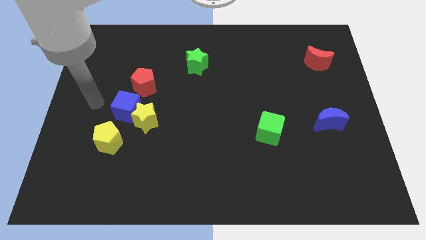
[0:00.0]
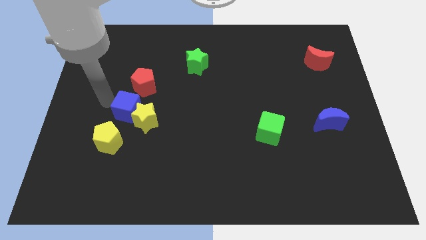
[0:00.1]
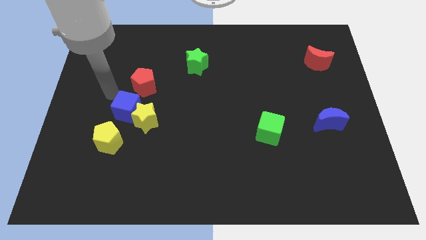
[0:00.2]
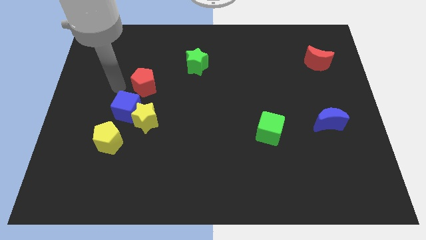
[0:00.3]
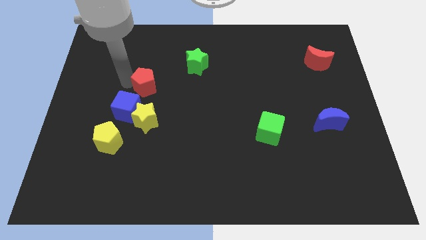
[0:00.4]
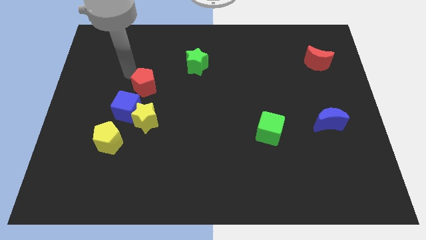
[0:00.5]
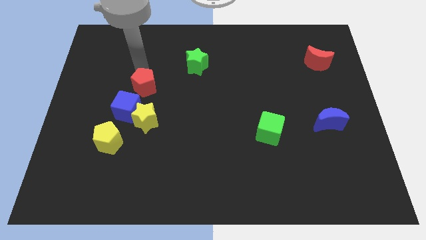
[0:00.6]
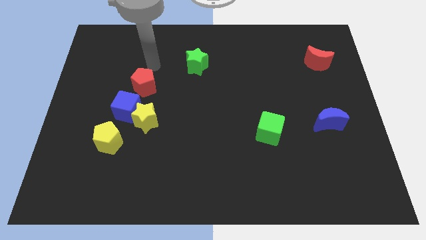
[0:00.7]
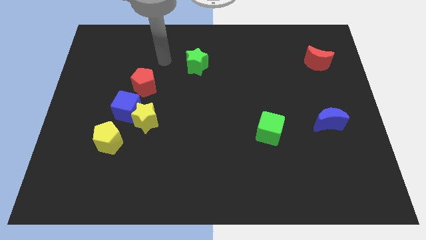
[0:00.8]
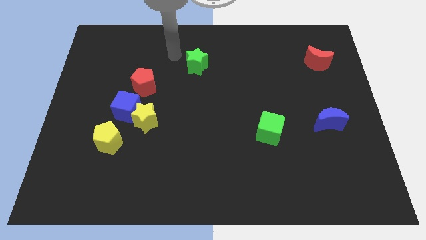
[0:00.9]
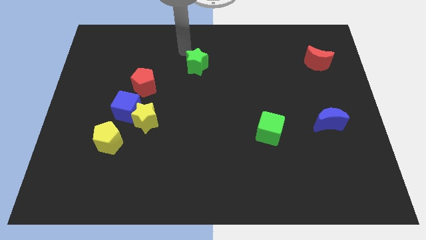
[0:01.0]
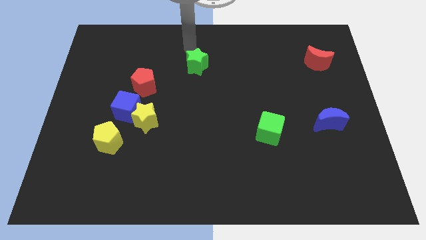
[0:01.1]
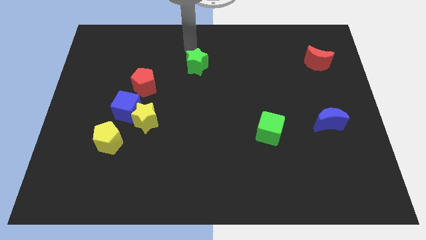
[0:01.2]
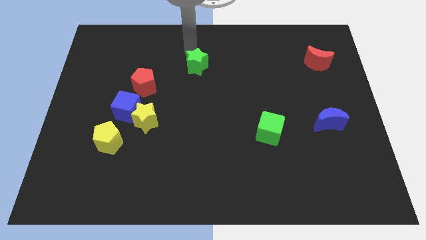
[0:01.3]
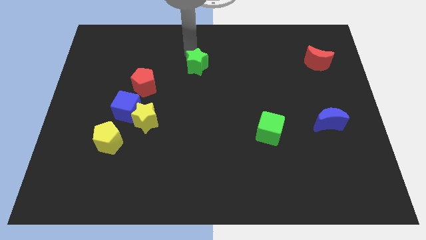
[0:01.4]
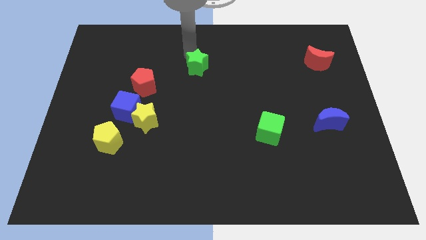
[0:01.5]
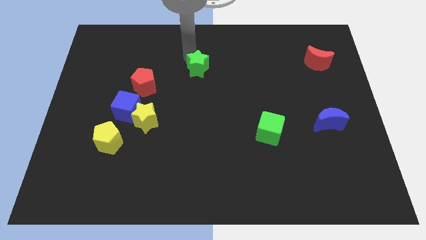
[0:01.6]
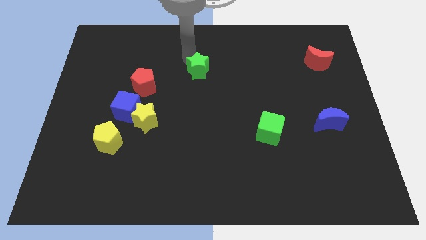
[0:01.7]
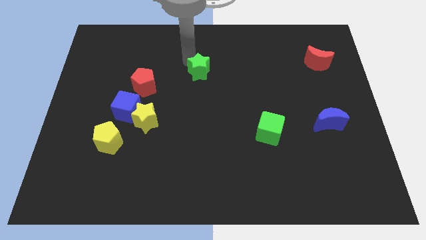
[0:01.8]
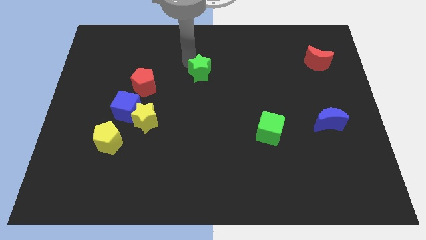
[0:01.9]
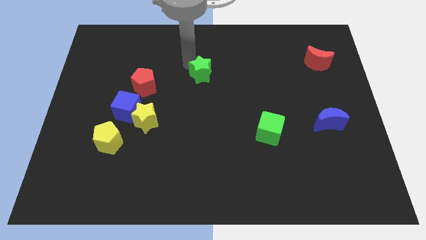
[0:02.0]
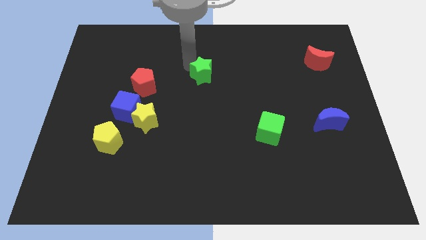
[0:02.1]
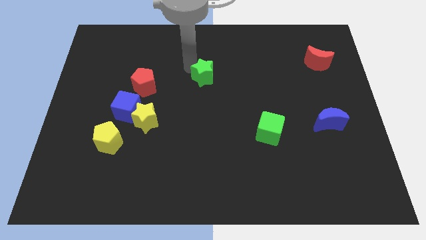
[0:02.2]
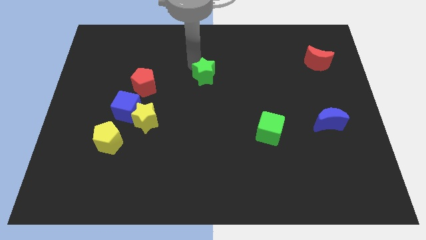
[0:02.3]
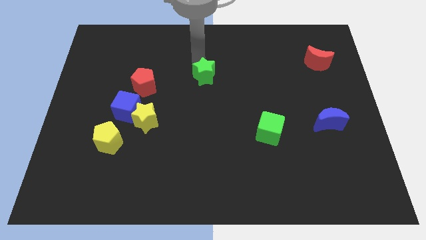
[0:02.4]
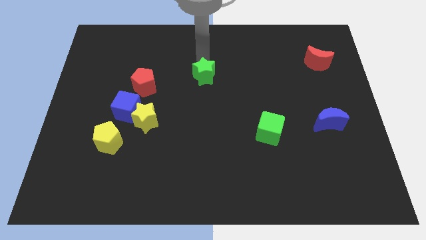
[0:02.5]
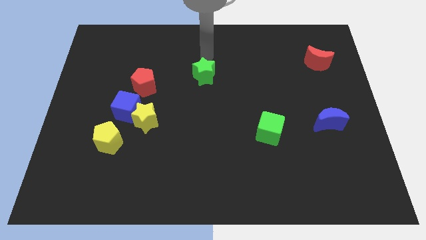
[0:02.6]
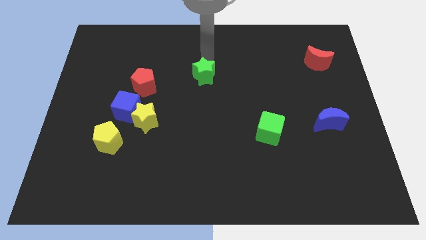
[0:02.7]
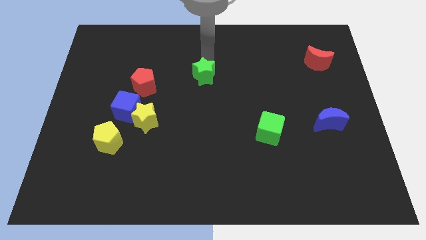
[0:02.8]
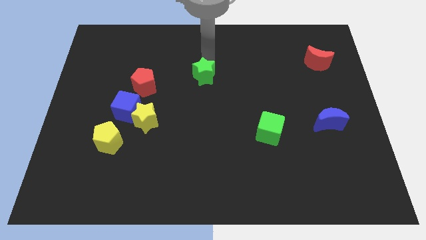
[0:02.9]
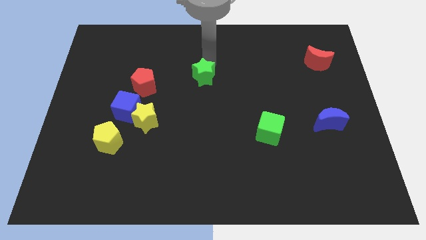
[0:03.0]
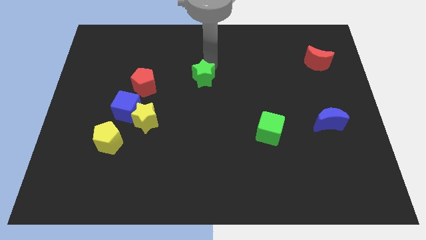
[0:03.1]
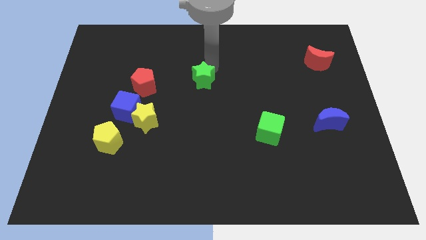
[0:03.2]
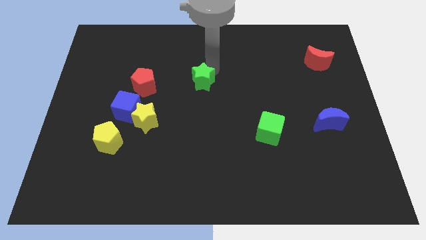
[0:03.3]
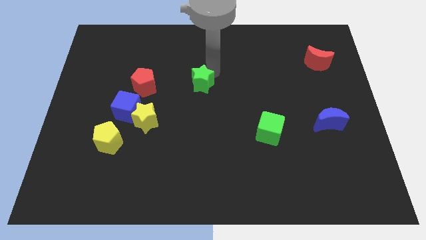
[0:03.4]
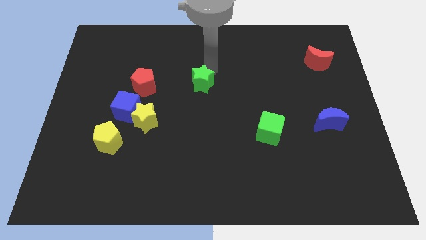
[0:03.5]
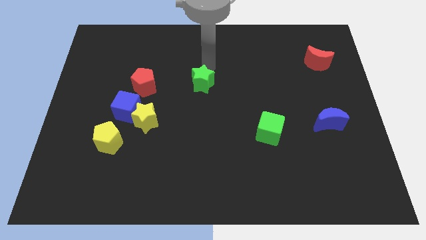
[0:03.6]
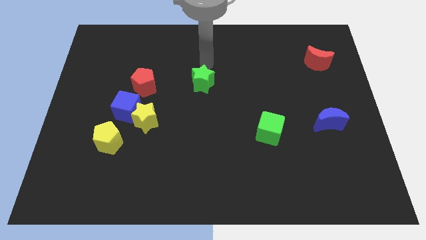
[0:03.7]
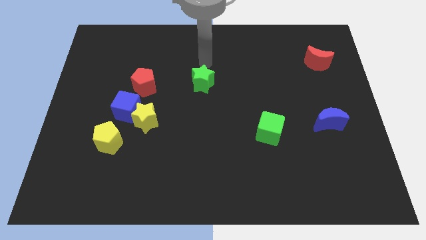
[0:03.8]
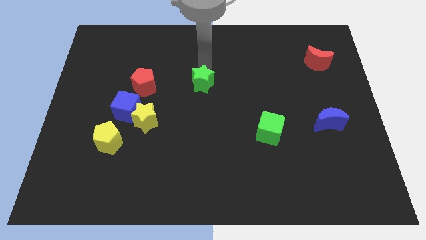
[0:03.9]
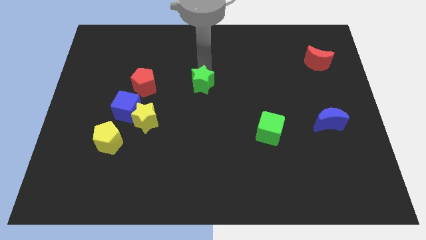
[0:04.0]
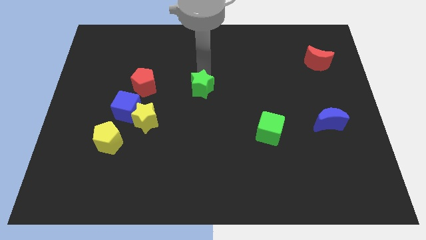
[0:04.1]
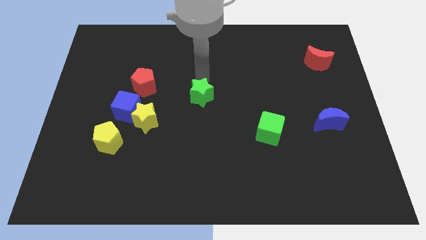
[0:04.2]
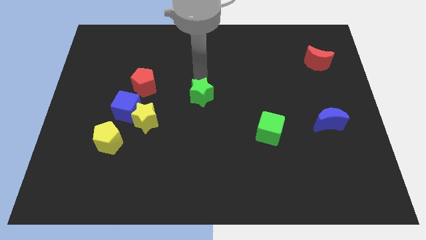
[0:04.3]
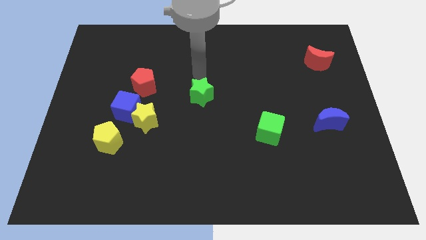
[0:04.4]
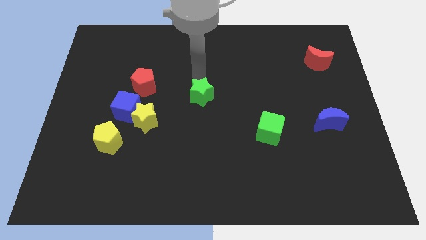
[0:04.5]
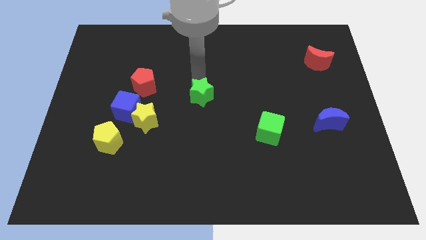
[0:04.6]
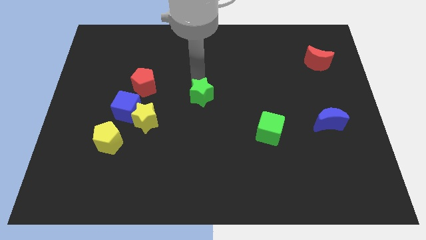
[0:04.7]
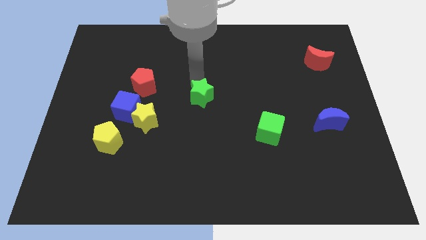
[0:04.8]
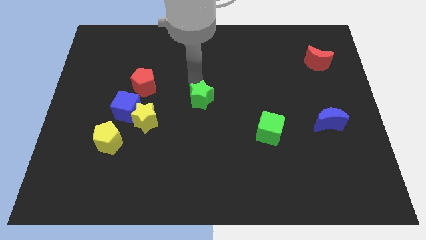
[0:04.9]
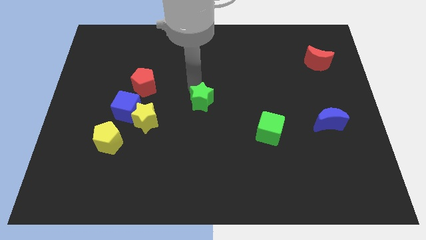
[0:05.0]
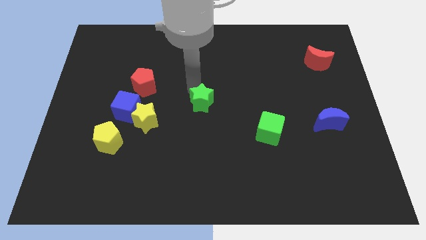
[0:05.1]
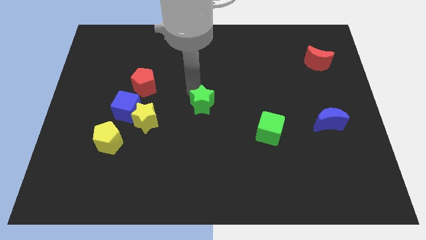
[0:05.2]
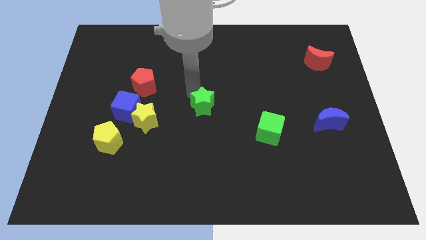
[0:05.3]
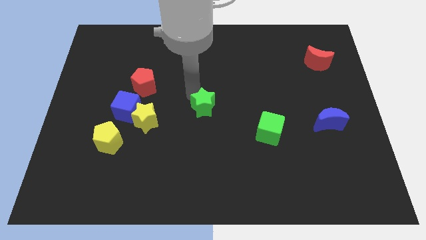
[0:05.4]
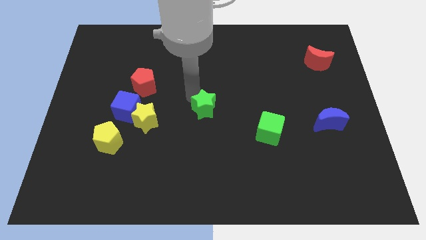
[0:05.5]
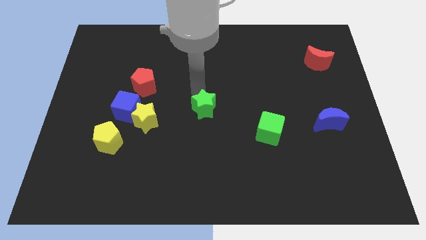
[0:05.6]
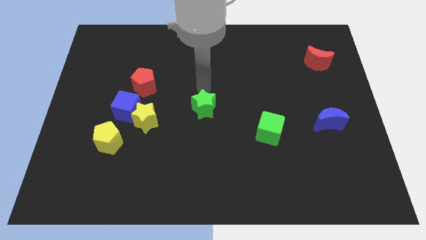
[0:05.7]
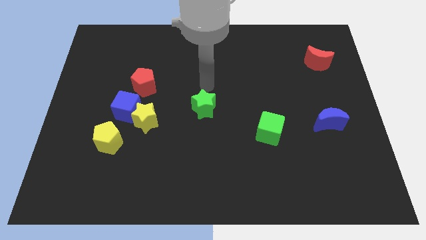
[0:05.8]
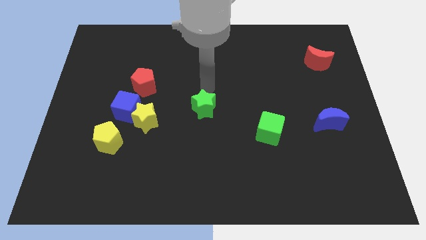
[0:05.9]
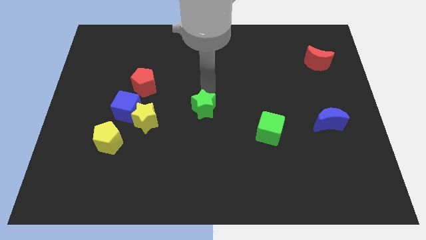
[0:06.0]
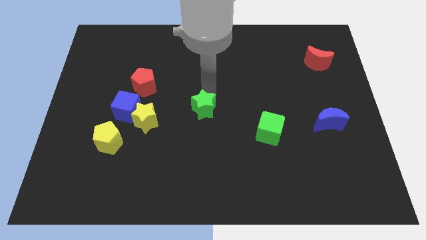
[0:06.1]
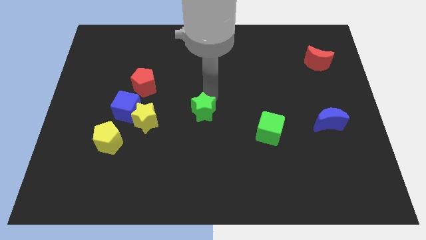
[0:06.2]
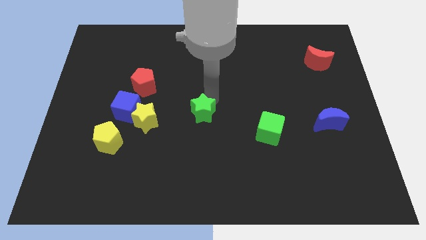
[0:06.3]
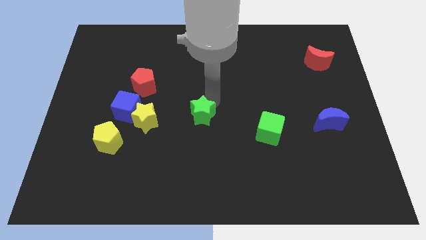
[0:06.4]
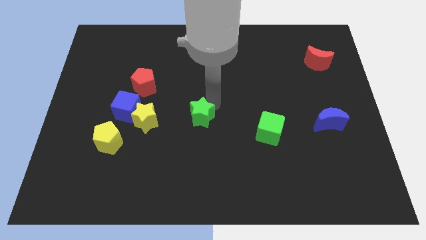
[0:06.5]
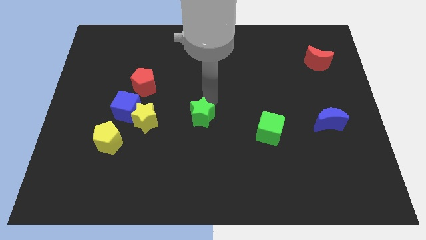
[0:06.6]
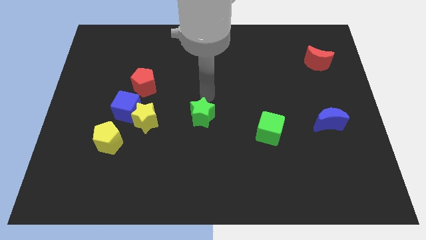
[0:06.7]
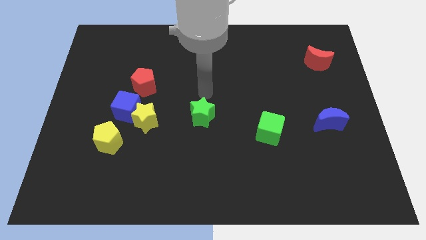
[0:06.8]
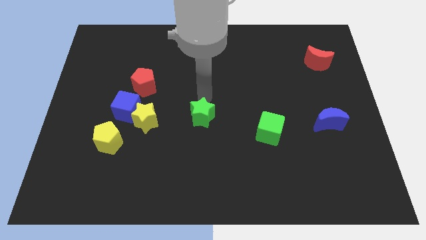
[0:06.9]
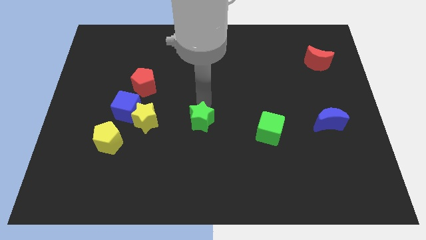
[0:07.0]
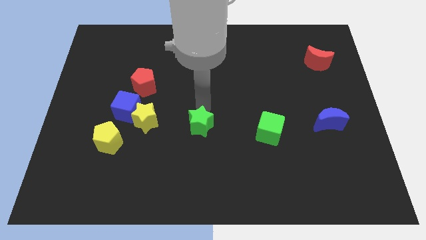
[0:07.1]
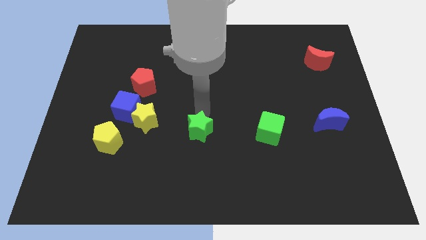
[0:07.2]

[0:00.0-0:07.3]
slide the green star downwards

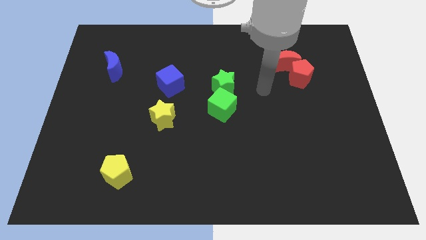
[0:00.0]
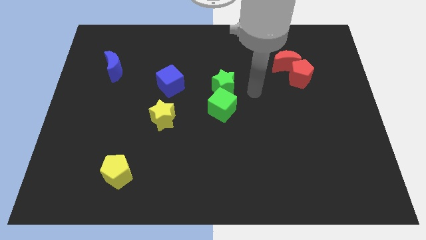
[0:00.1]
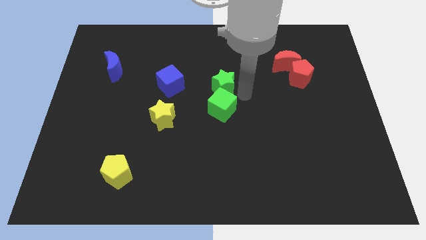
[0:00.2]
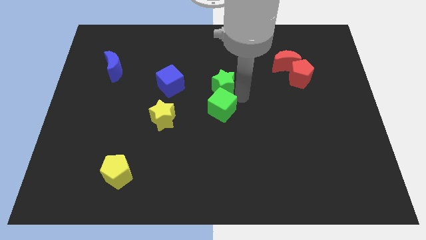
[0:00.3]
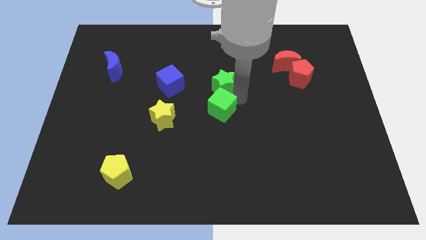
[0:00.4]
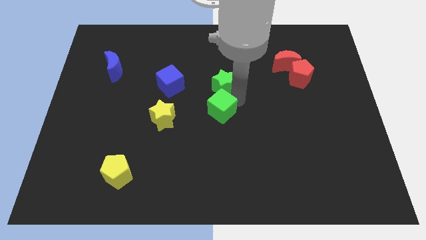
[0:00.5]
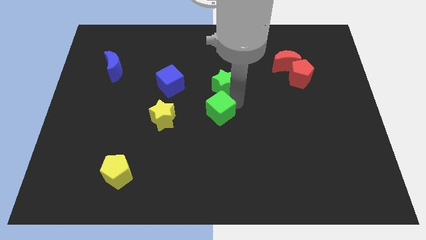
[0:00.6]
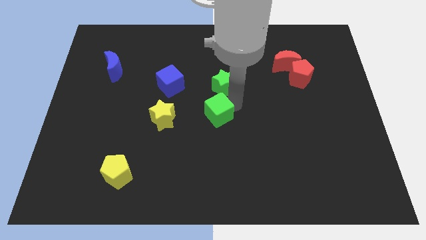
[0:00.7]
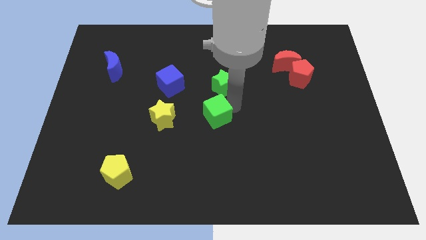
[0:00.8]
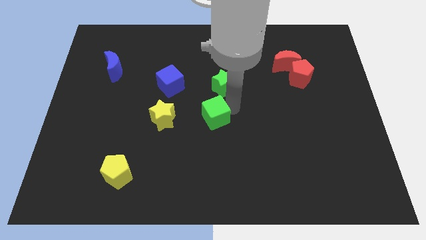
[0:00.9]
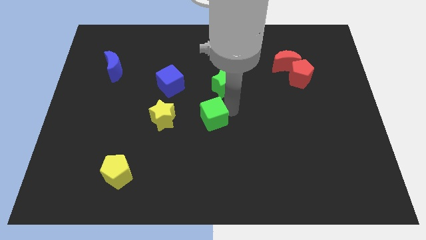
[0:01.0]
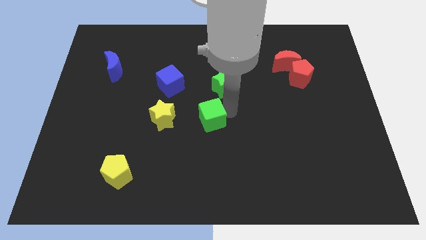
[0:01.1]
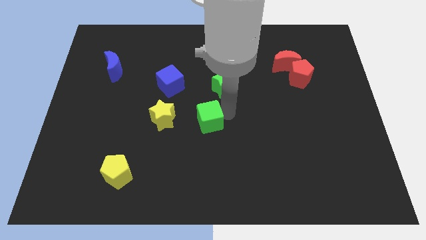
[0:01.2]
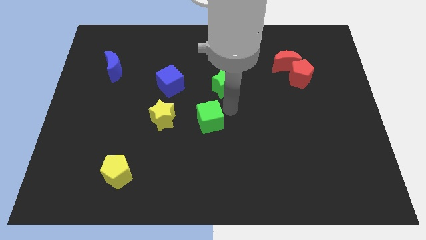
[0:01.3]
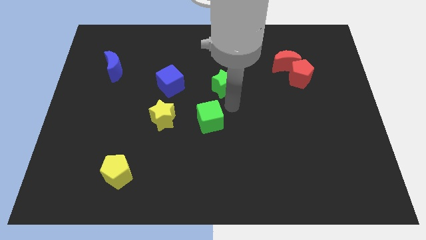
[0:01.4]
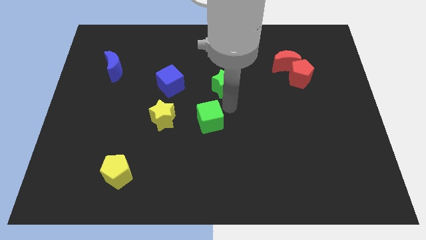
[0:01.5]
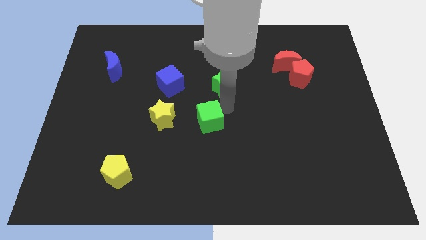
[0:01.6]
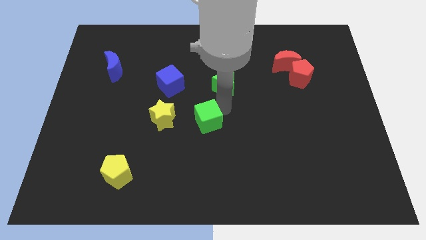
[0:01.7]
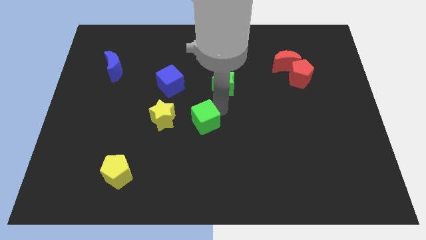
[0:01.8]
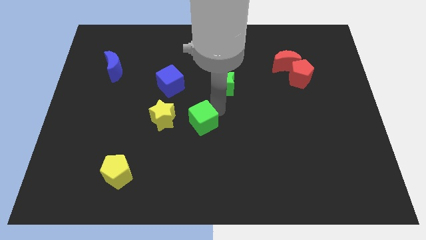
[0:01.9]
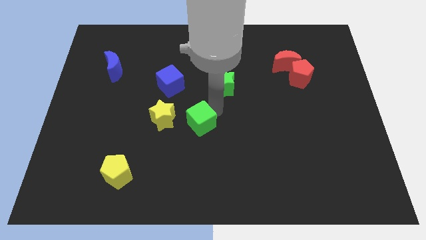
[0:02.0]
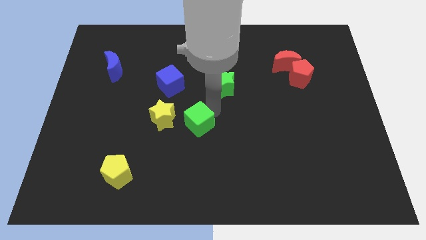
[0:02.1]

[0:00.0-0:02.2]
slightly slide the green cube downwards and then left
